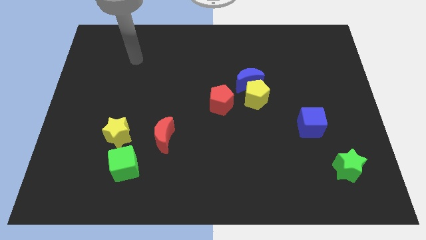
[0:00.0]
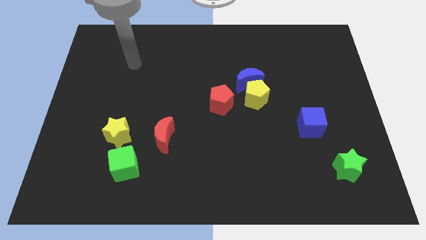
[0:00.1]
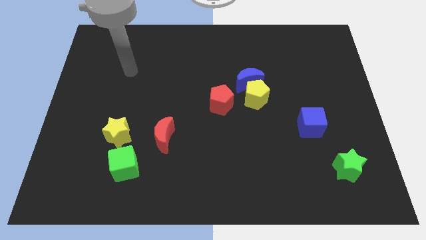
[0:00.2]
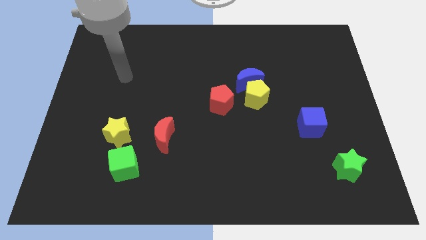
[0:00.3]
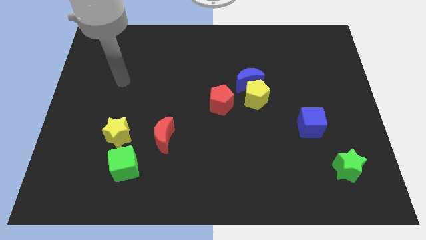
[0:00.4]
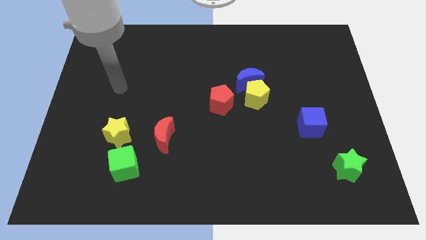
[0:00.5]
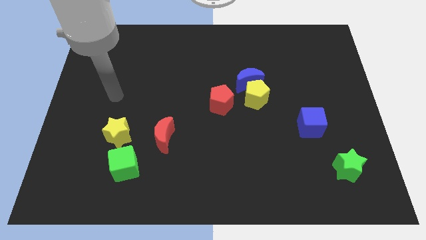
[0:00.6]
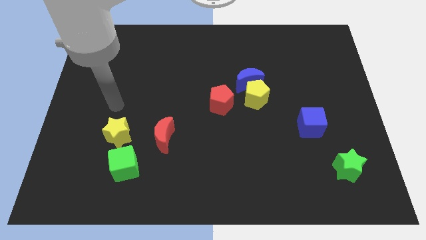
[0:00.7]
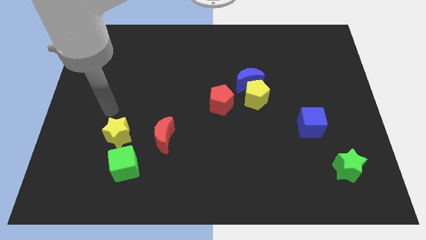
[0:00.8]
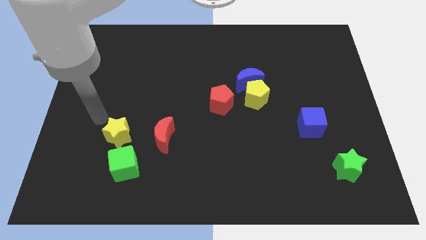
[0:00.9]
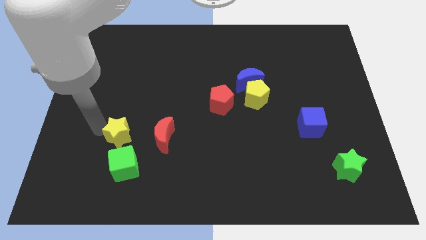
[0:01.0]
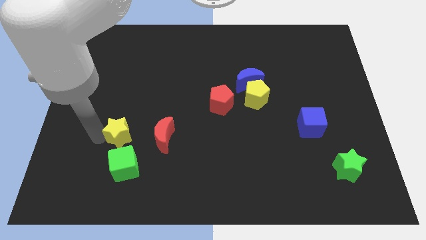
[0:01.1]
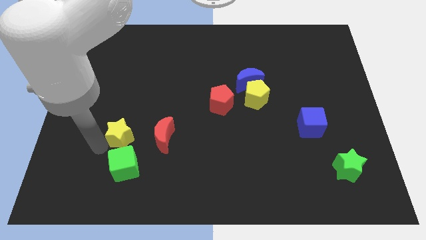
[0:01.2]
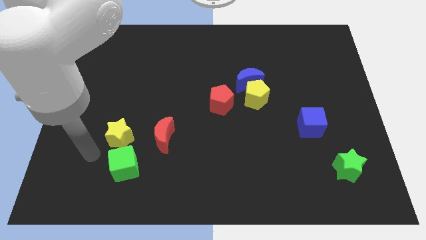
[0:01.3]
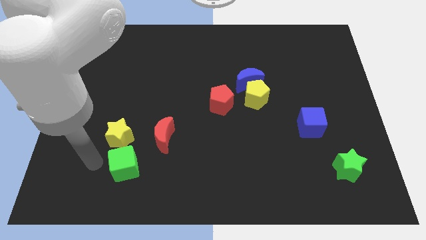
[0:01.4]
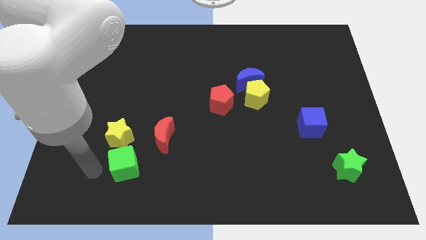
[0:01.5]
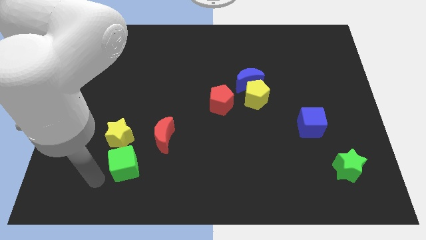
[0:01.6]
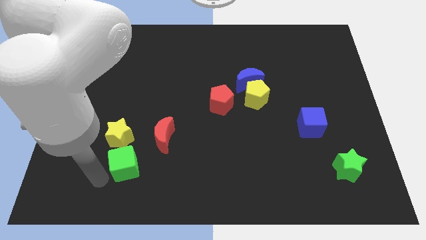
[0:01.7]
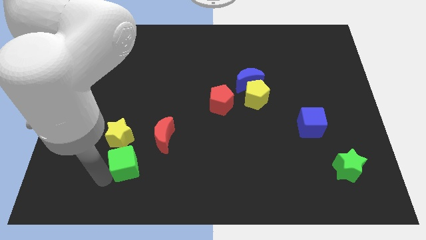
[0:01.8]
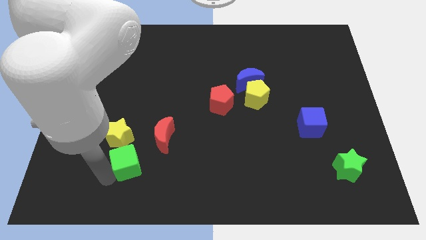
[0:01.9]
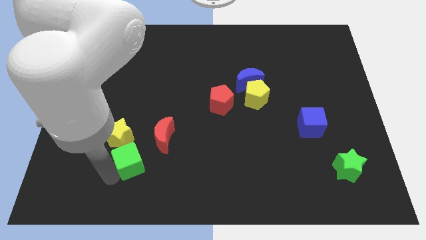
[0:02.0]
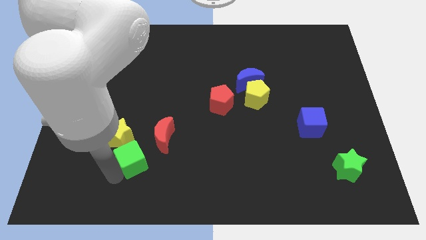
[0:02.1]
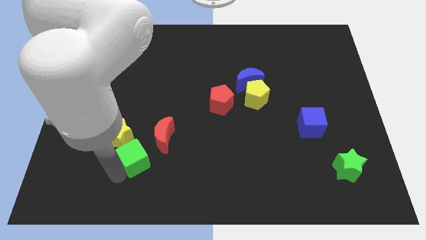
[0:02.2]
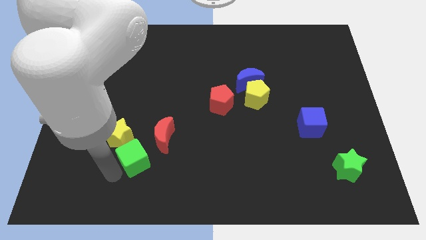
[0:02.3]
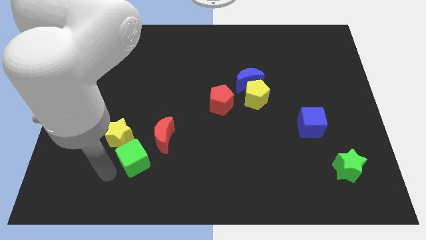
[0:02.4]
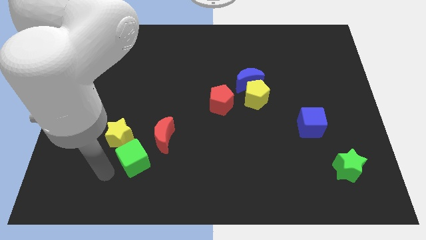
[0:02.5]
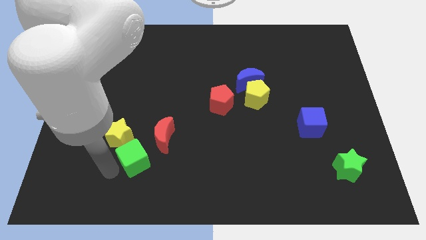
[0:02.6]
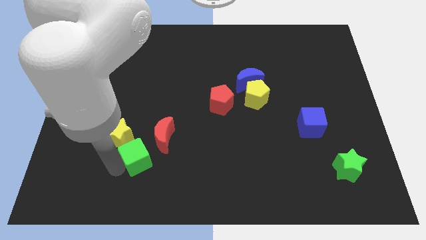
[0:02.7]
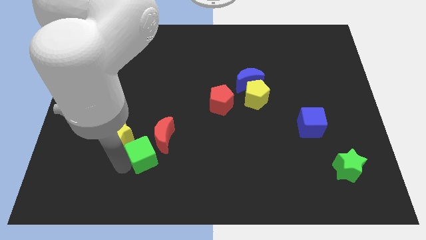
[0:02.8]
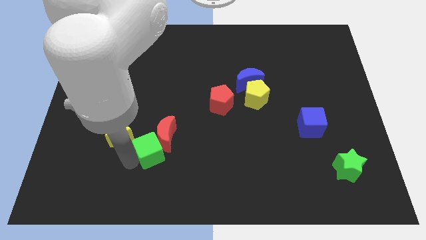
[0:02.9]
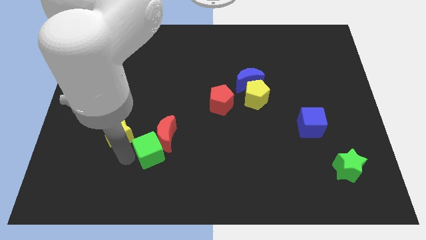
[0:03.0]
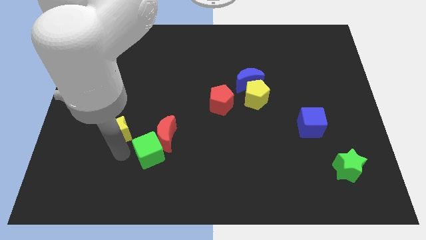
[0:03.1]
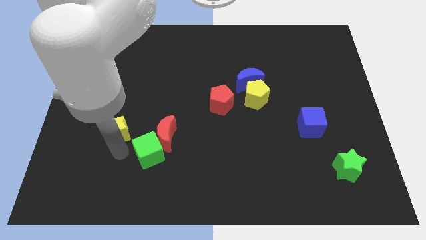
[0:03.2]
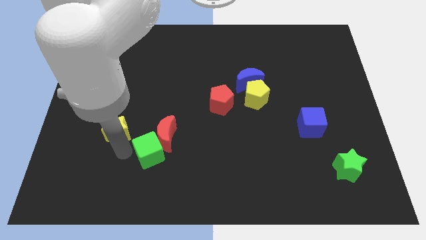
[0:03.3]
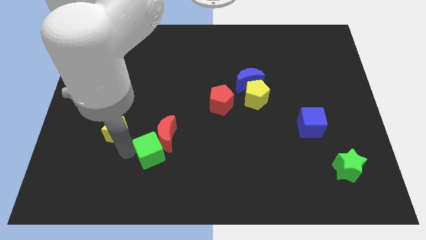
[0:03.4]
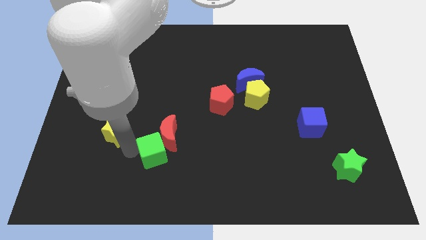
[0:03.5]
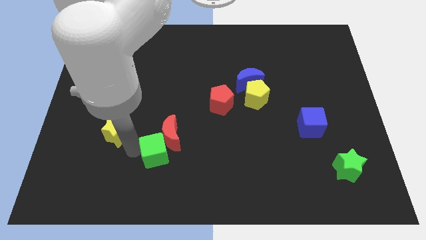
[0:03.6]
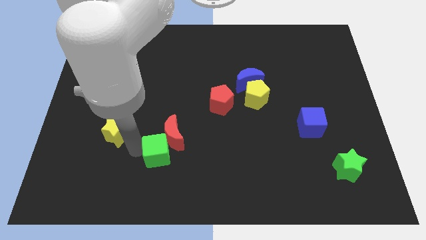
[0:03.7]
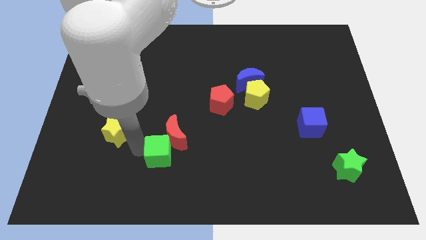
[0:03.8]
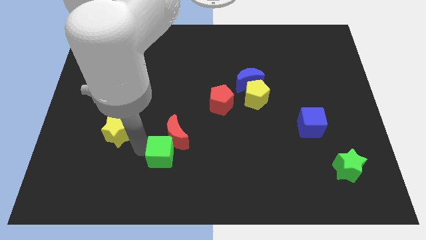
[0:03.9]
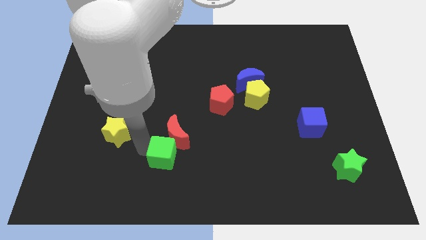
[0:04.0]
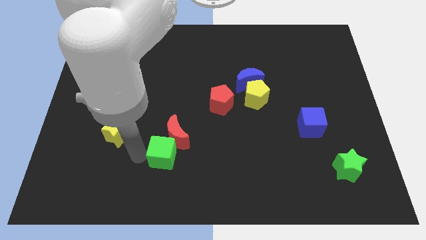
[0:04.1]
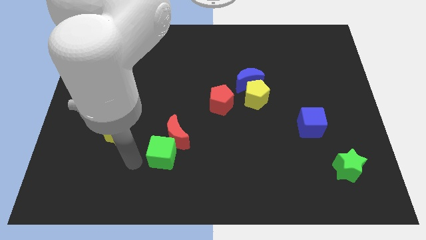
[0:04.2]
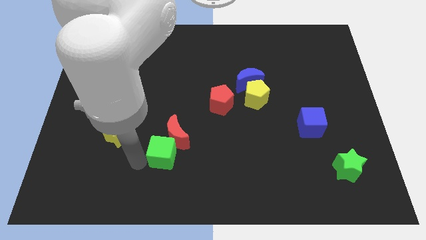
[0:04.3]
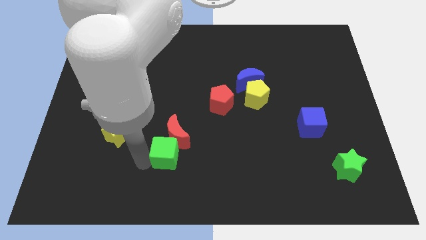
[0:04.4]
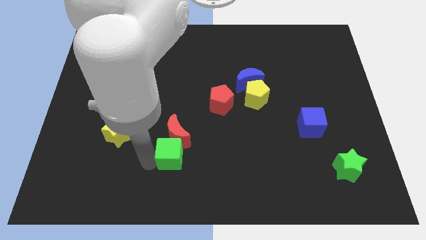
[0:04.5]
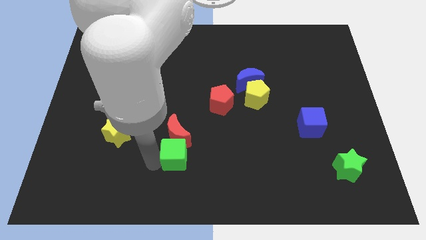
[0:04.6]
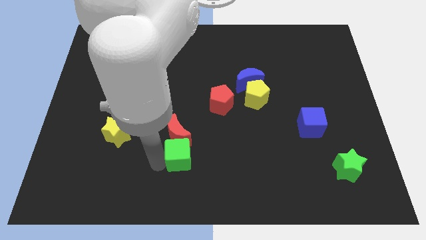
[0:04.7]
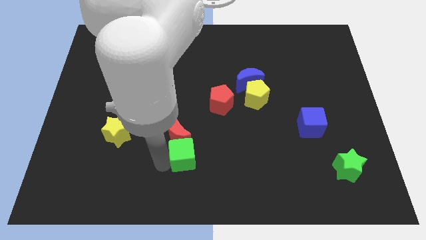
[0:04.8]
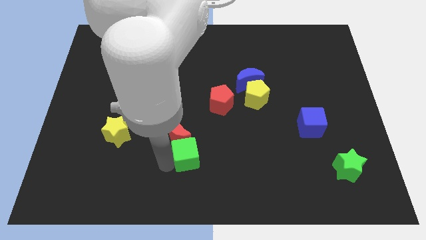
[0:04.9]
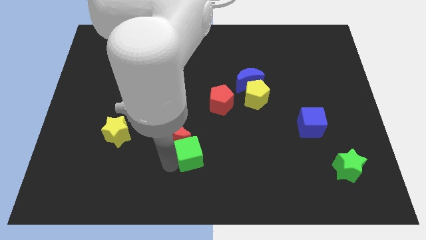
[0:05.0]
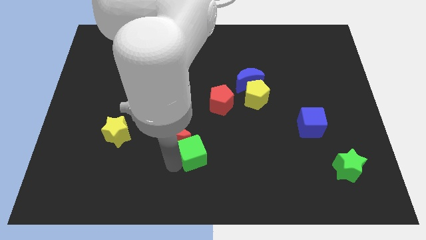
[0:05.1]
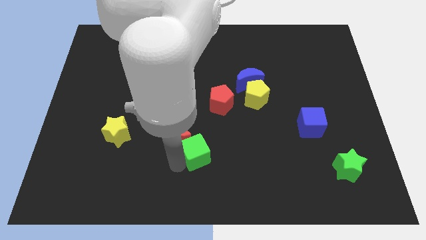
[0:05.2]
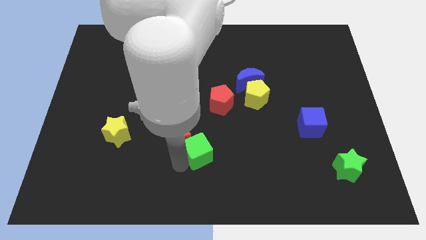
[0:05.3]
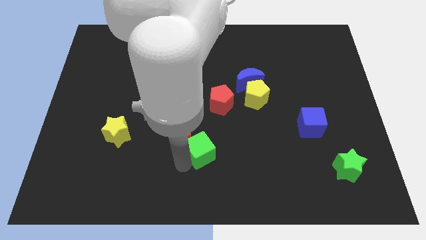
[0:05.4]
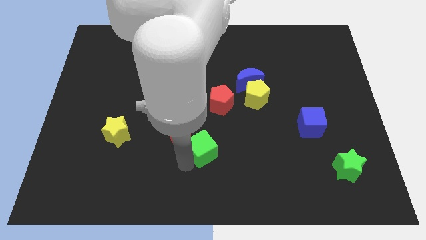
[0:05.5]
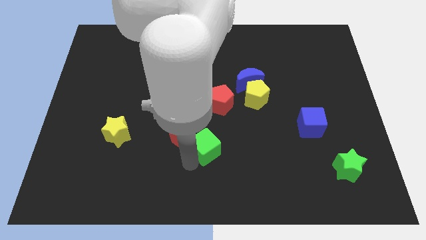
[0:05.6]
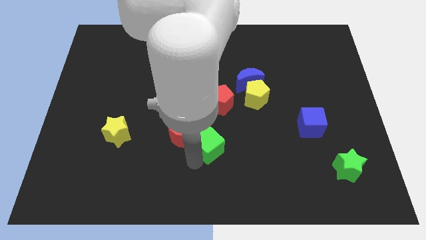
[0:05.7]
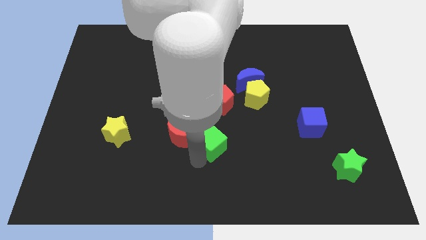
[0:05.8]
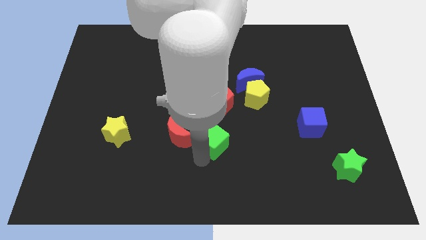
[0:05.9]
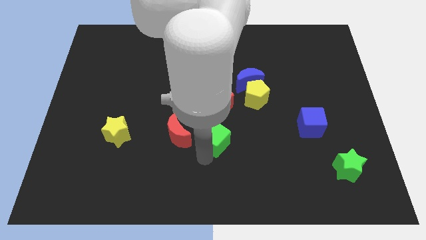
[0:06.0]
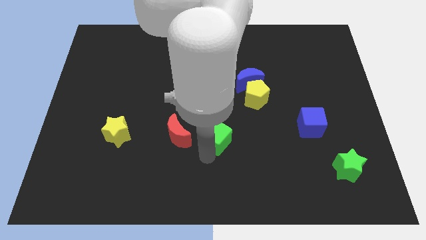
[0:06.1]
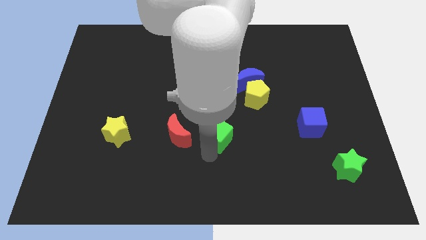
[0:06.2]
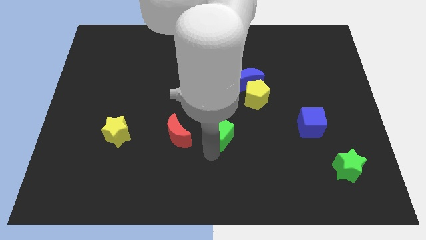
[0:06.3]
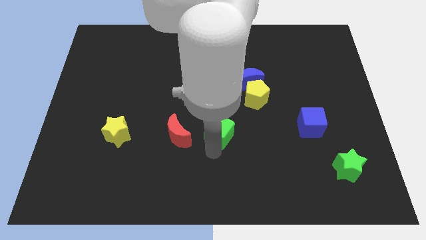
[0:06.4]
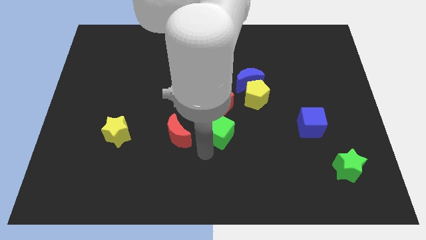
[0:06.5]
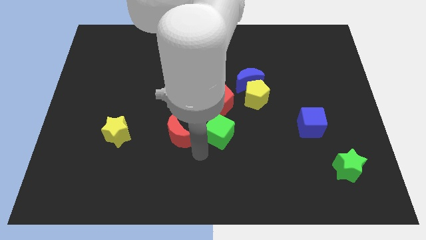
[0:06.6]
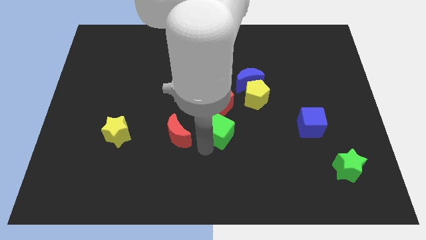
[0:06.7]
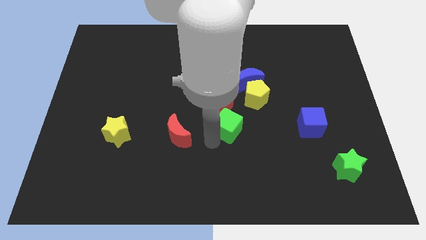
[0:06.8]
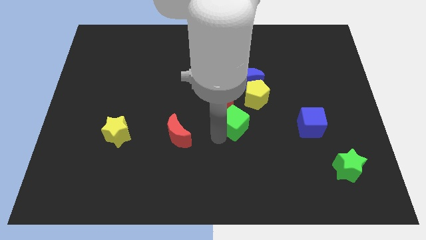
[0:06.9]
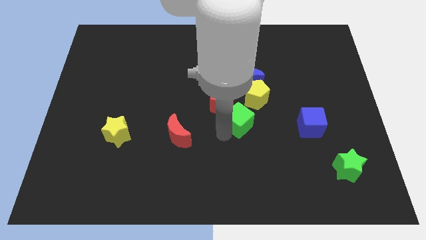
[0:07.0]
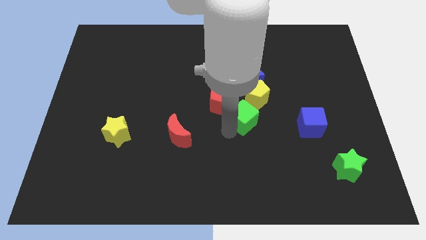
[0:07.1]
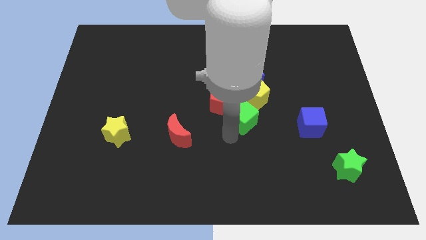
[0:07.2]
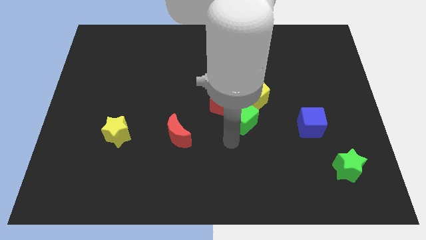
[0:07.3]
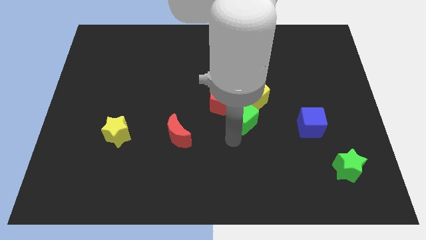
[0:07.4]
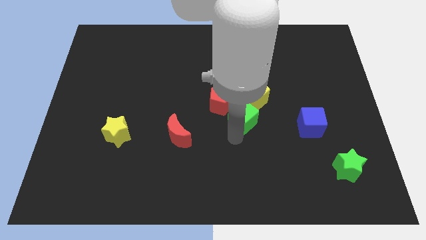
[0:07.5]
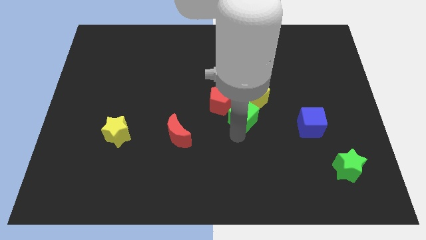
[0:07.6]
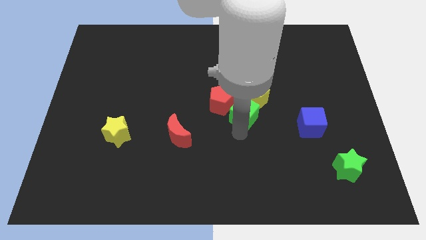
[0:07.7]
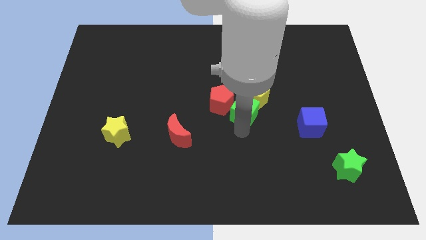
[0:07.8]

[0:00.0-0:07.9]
put the green cube close to the yellow pentagon
